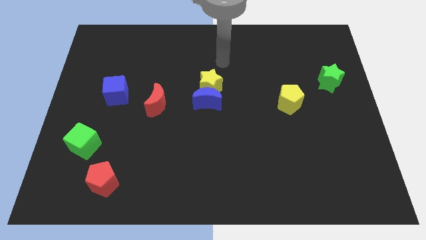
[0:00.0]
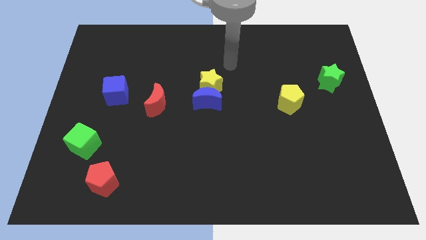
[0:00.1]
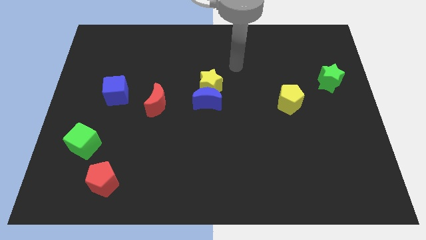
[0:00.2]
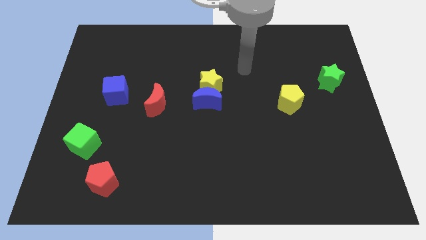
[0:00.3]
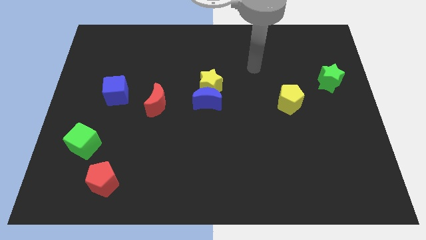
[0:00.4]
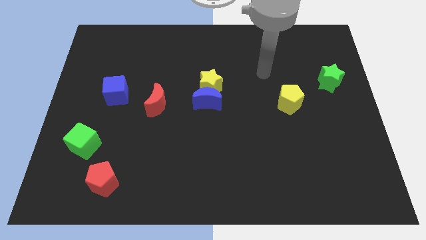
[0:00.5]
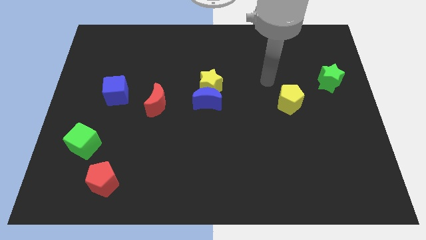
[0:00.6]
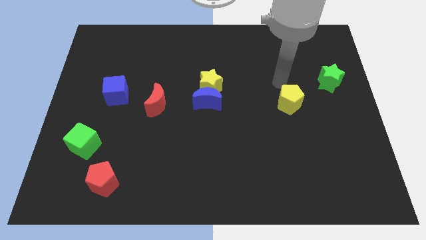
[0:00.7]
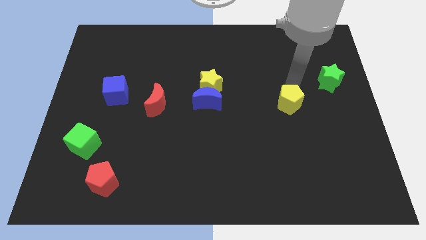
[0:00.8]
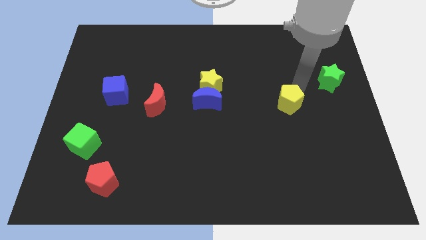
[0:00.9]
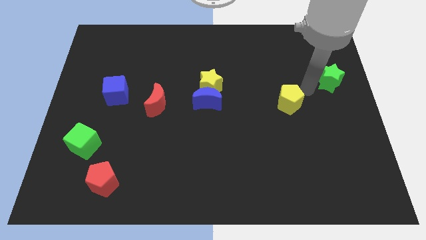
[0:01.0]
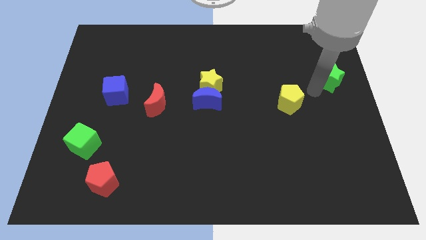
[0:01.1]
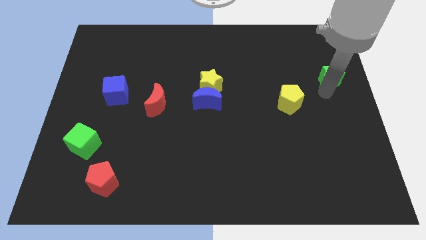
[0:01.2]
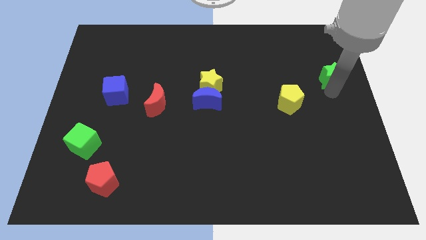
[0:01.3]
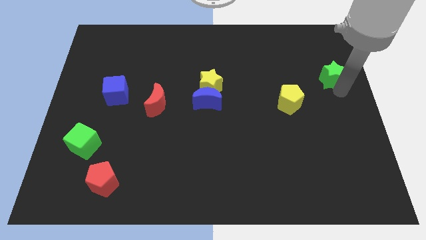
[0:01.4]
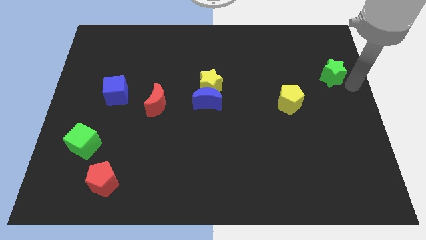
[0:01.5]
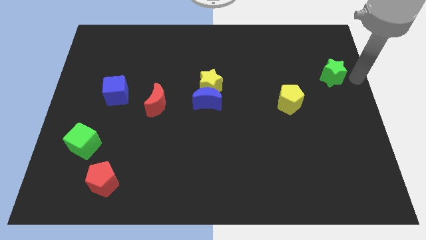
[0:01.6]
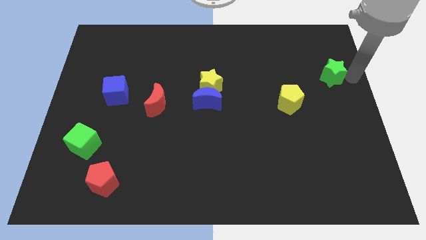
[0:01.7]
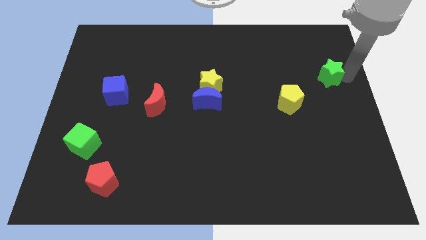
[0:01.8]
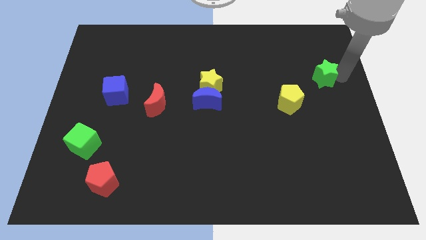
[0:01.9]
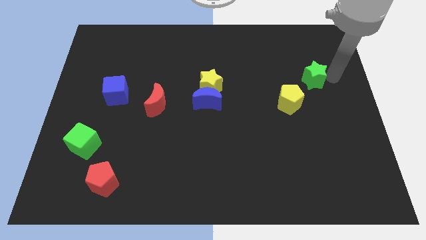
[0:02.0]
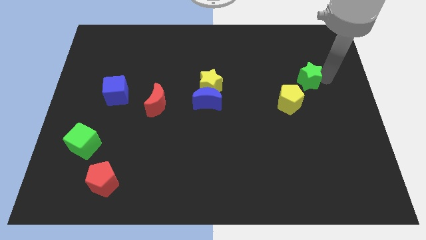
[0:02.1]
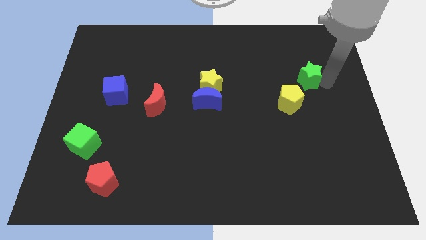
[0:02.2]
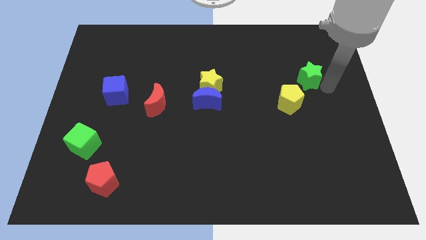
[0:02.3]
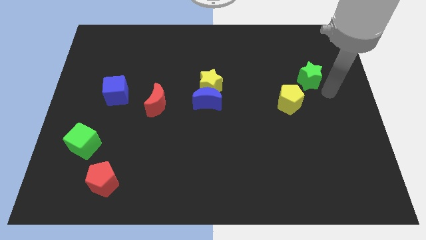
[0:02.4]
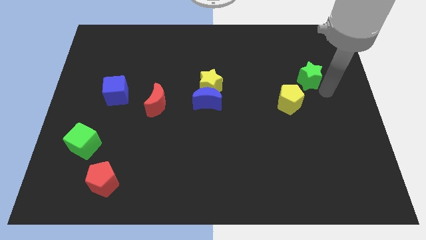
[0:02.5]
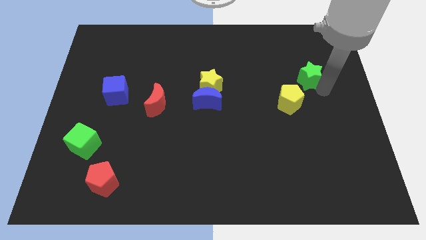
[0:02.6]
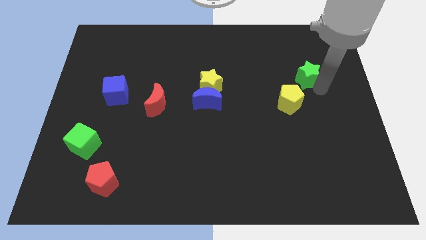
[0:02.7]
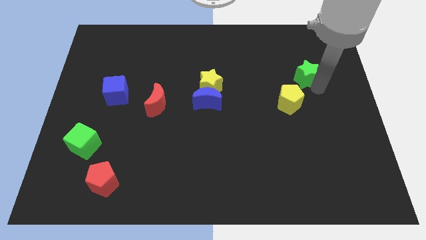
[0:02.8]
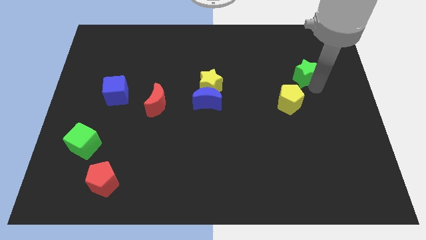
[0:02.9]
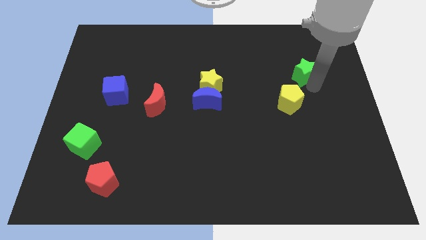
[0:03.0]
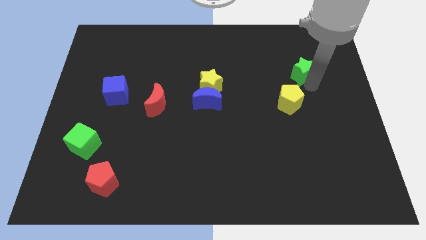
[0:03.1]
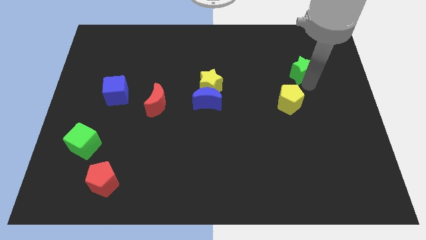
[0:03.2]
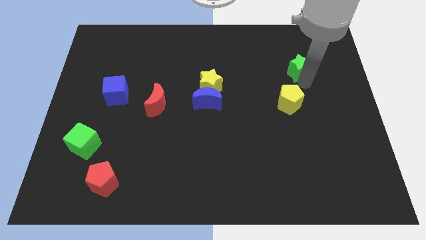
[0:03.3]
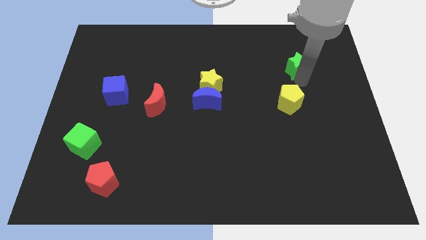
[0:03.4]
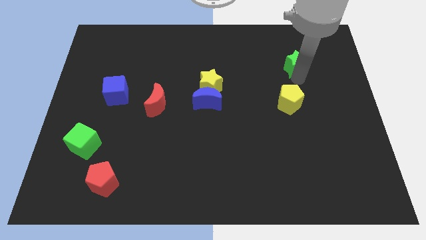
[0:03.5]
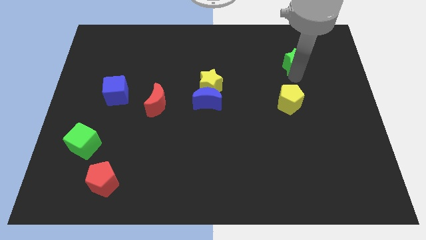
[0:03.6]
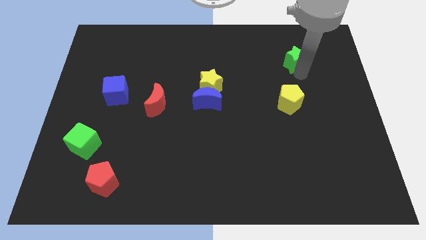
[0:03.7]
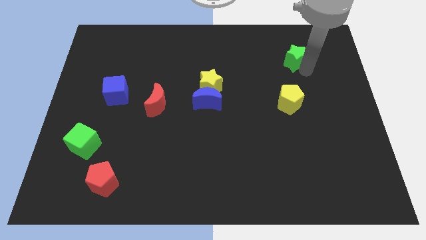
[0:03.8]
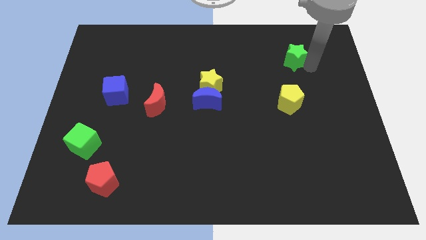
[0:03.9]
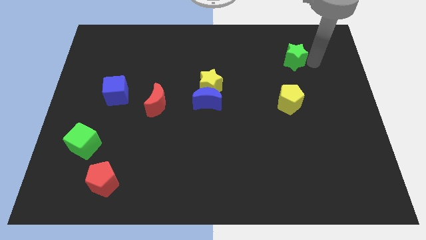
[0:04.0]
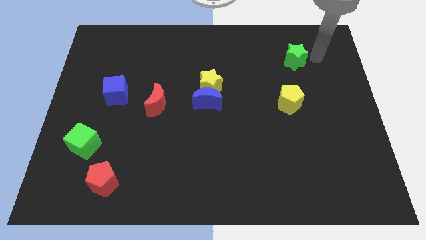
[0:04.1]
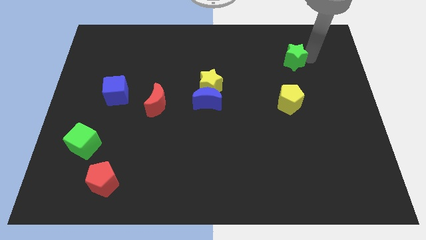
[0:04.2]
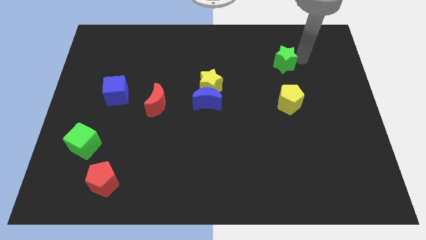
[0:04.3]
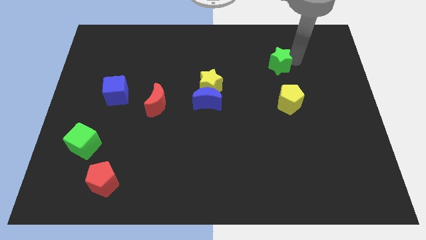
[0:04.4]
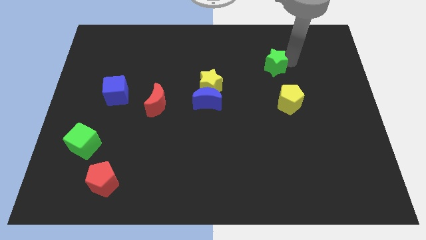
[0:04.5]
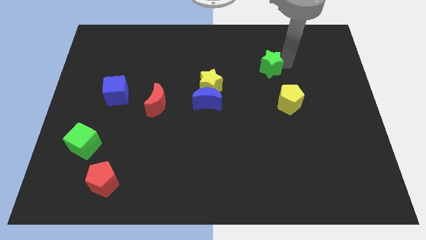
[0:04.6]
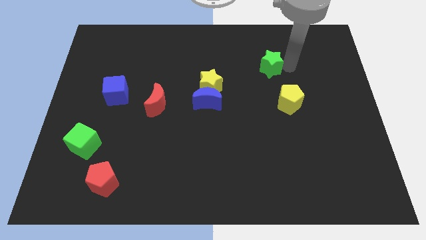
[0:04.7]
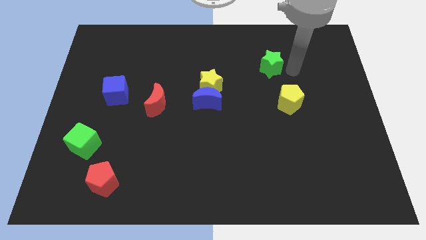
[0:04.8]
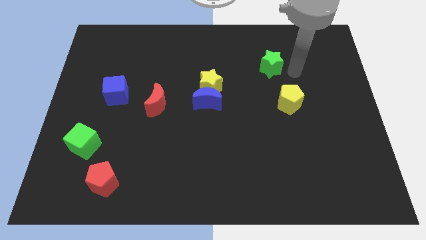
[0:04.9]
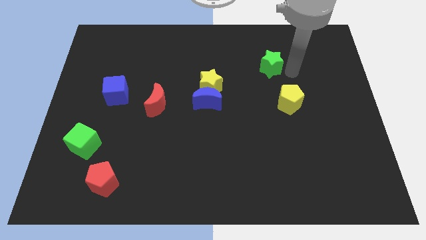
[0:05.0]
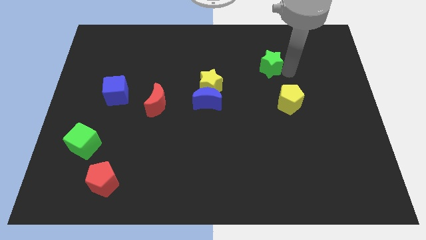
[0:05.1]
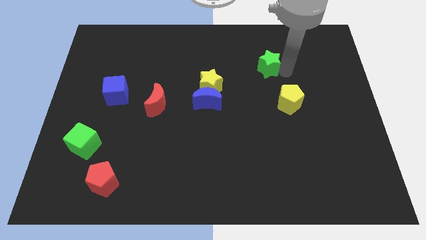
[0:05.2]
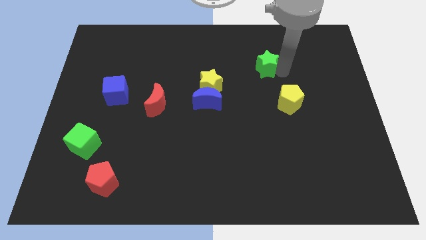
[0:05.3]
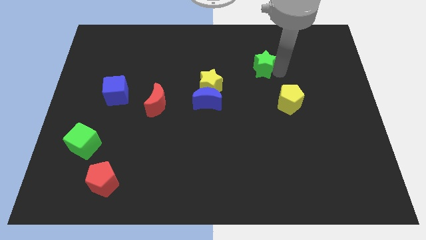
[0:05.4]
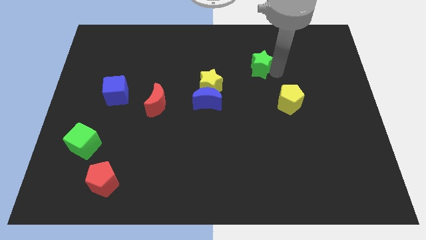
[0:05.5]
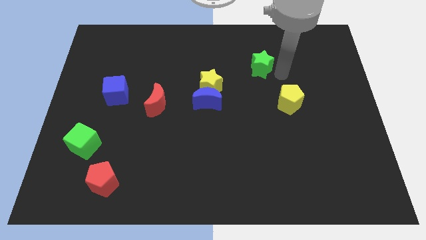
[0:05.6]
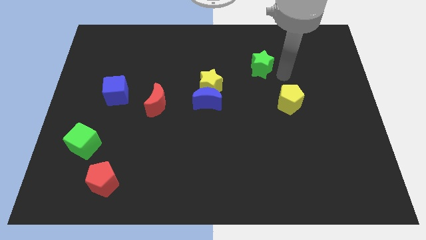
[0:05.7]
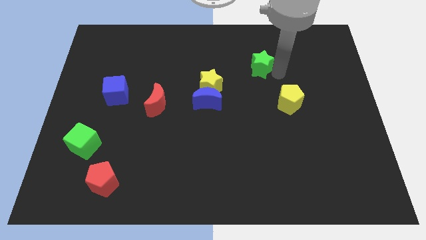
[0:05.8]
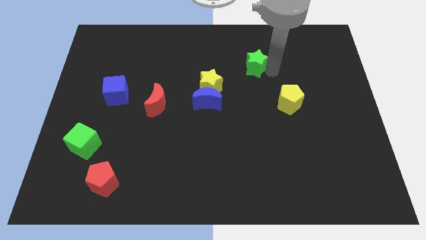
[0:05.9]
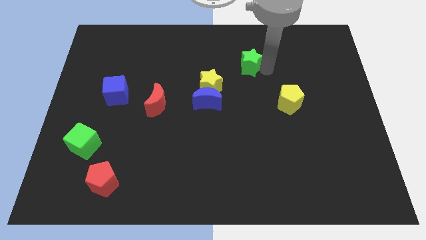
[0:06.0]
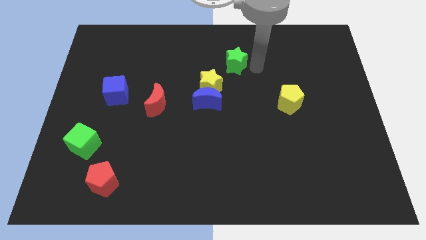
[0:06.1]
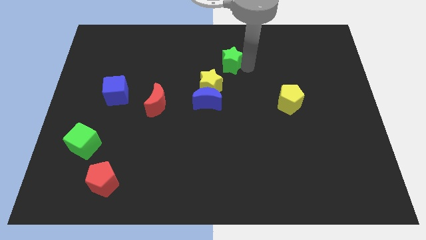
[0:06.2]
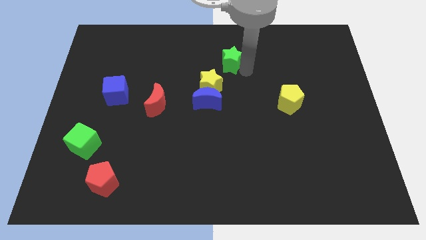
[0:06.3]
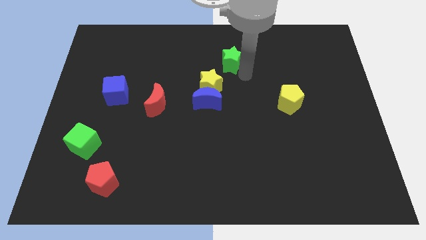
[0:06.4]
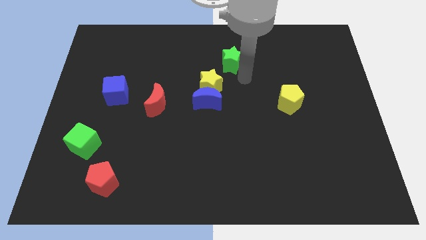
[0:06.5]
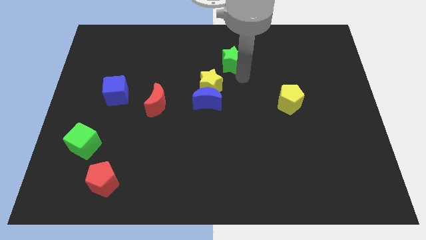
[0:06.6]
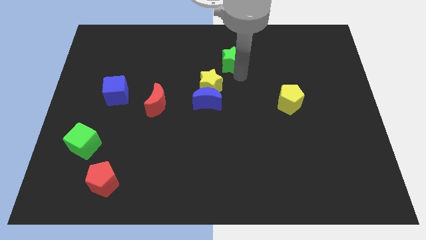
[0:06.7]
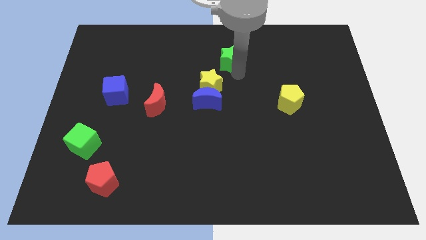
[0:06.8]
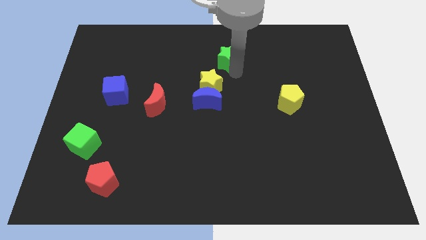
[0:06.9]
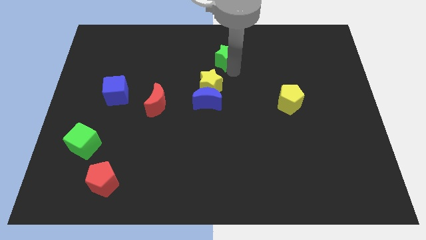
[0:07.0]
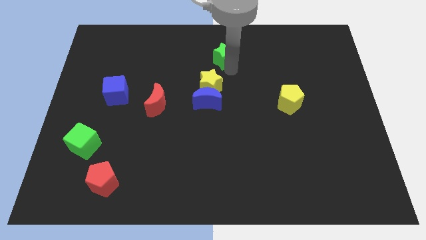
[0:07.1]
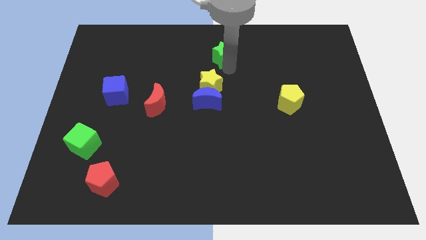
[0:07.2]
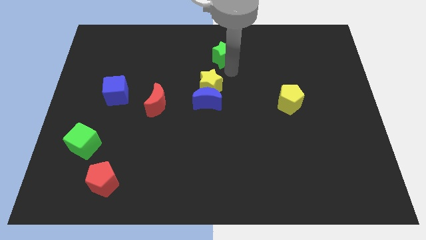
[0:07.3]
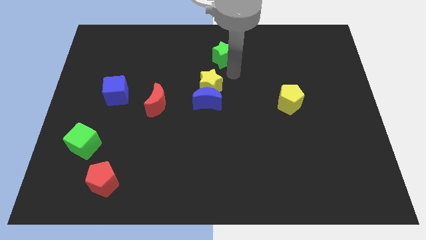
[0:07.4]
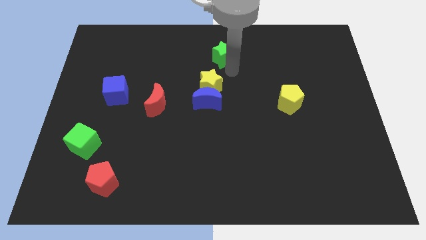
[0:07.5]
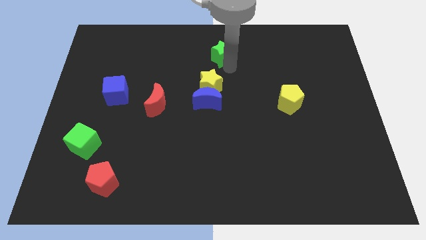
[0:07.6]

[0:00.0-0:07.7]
move the green star to the top
